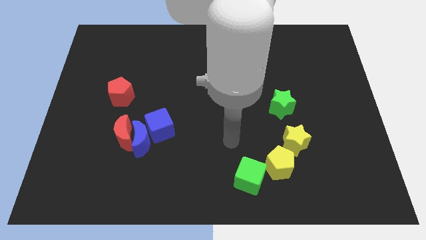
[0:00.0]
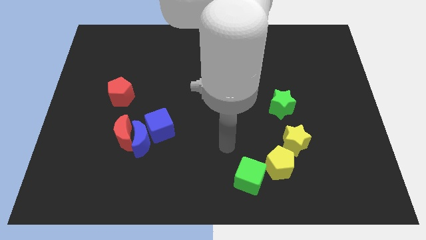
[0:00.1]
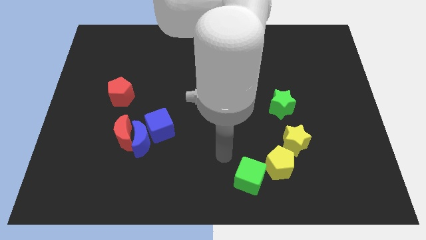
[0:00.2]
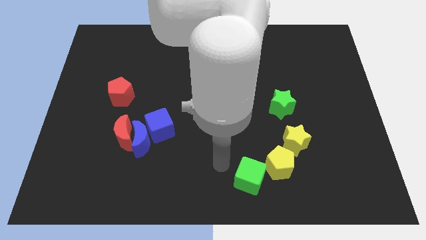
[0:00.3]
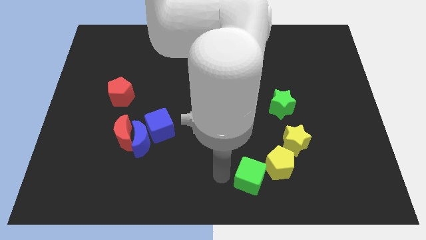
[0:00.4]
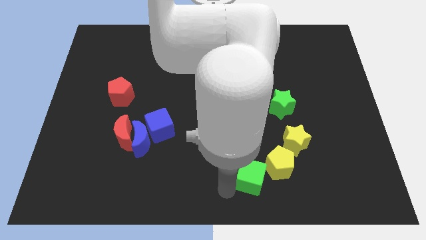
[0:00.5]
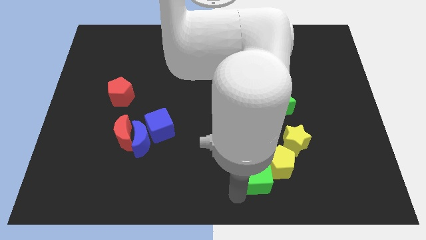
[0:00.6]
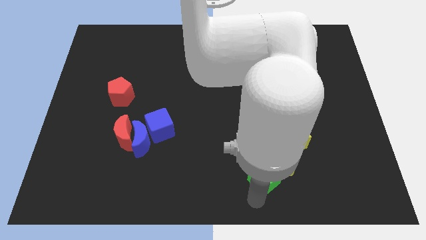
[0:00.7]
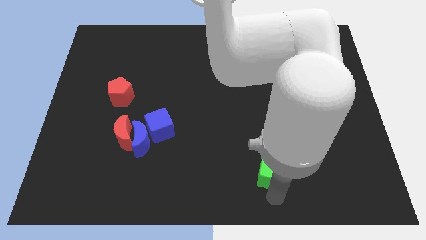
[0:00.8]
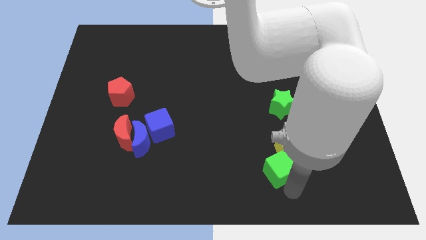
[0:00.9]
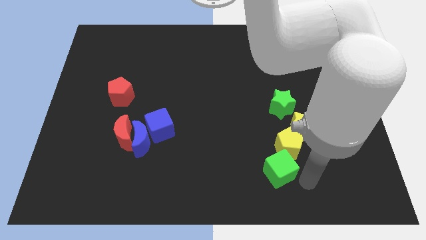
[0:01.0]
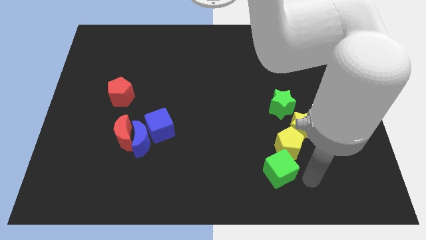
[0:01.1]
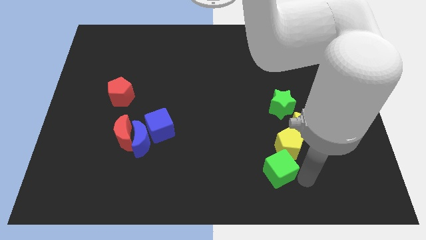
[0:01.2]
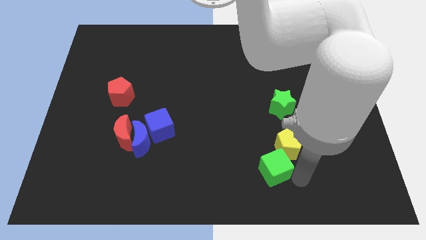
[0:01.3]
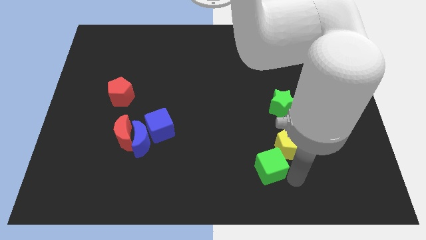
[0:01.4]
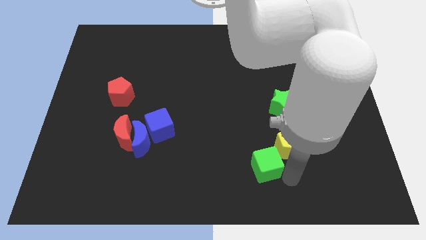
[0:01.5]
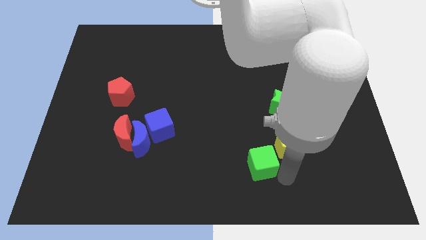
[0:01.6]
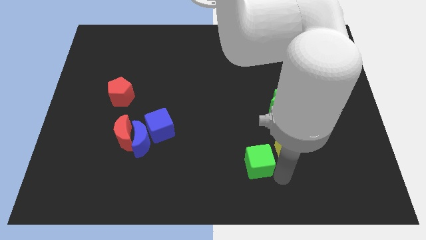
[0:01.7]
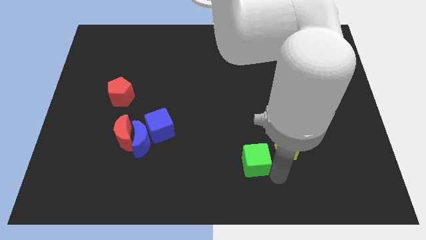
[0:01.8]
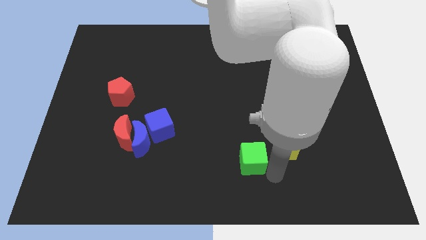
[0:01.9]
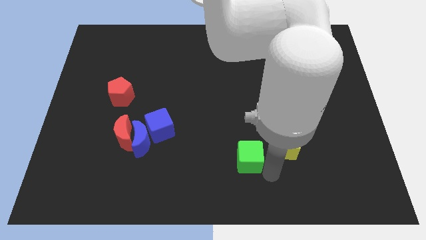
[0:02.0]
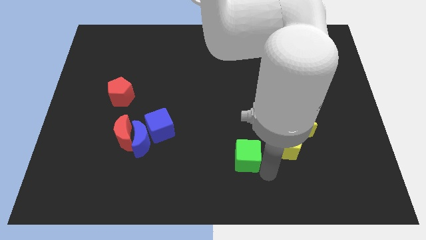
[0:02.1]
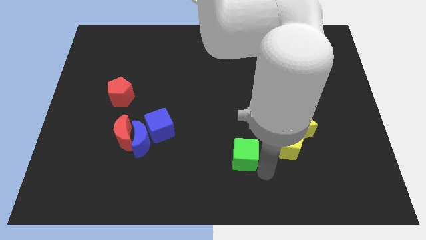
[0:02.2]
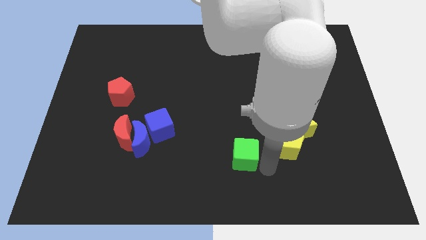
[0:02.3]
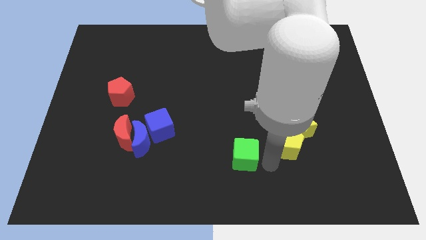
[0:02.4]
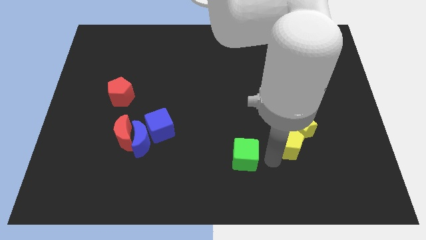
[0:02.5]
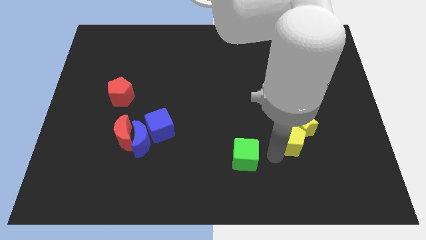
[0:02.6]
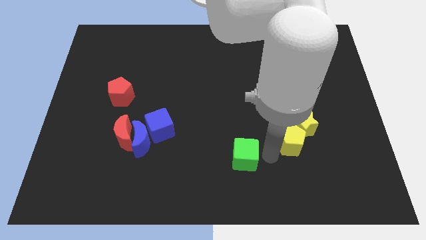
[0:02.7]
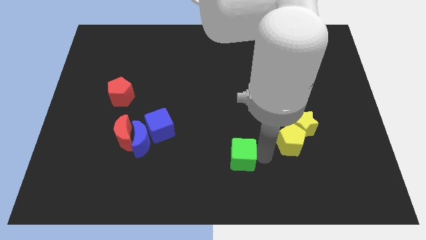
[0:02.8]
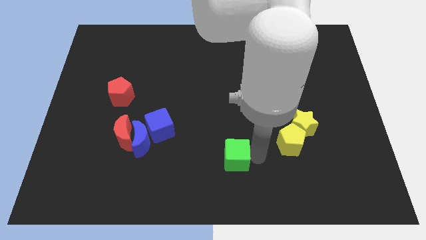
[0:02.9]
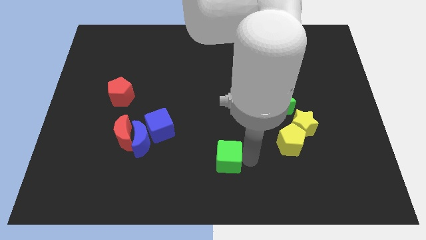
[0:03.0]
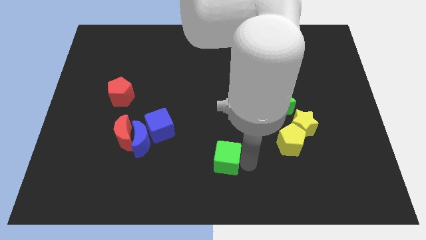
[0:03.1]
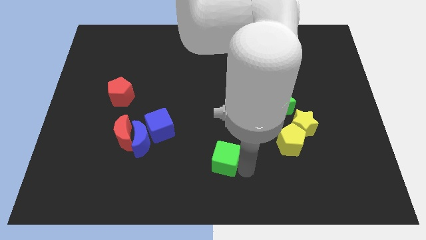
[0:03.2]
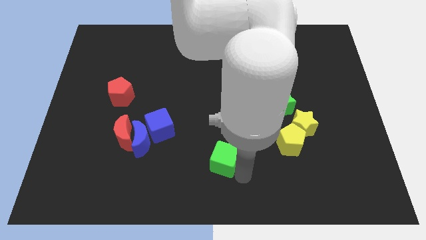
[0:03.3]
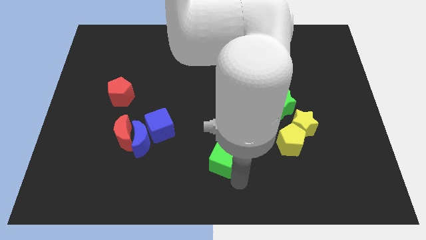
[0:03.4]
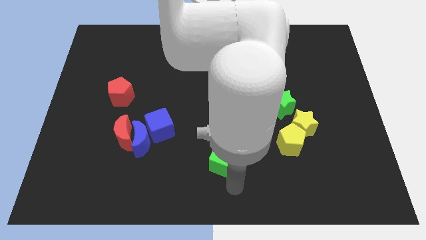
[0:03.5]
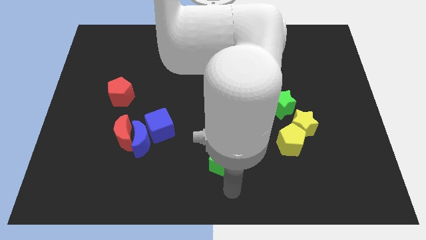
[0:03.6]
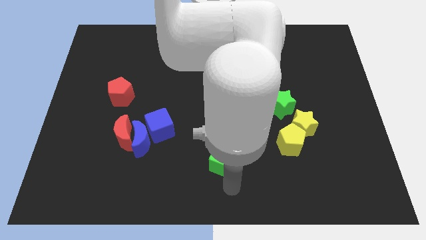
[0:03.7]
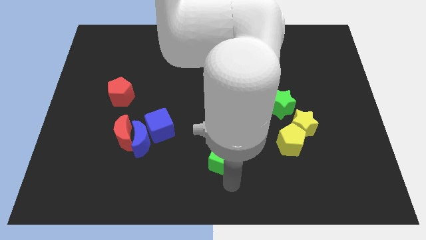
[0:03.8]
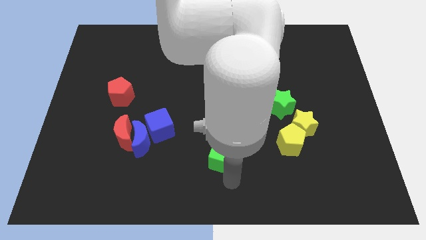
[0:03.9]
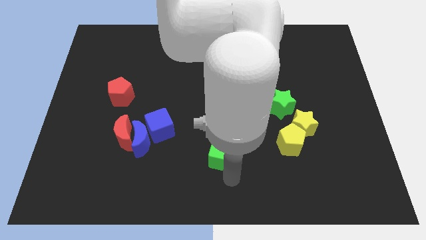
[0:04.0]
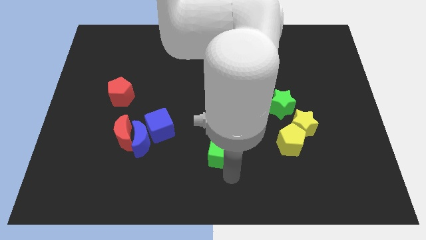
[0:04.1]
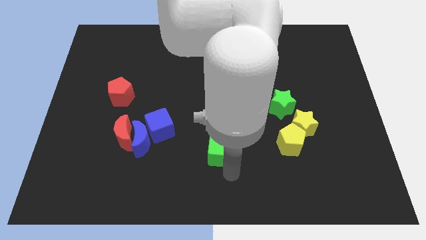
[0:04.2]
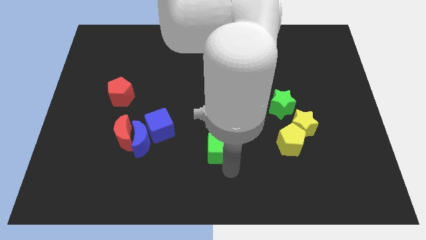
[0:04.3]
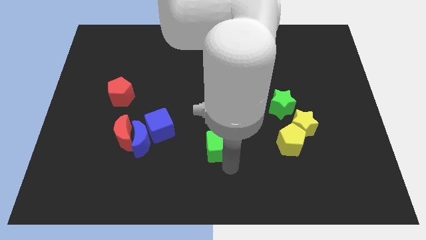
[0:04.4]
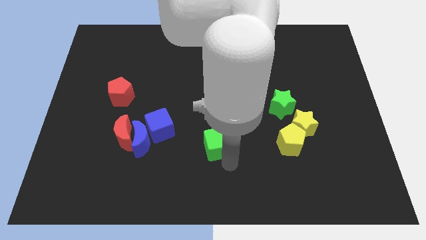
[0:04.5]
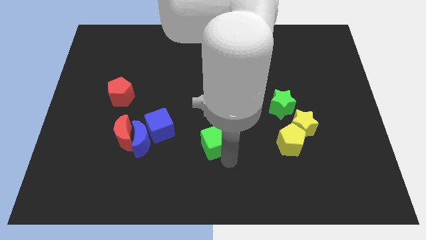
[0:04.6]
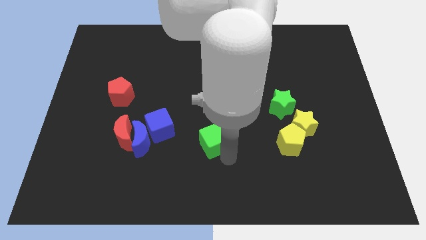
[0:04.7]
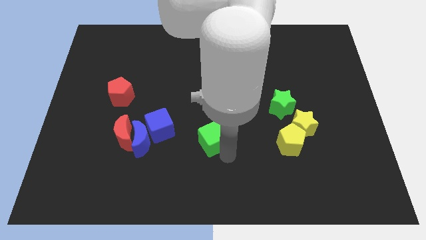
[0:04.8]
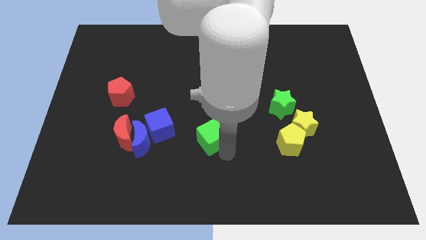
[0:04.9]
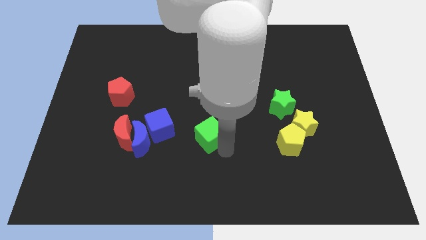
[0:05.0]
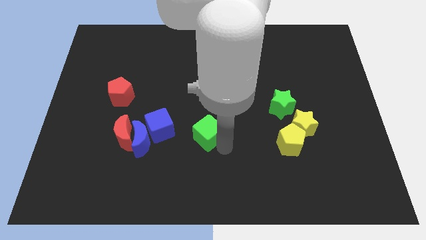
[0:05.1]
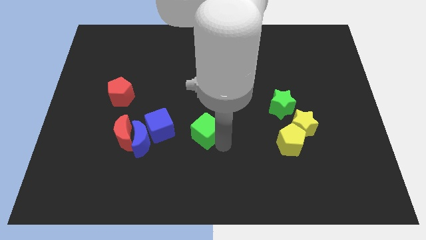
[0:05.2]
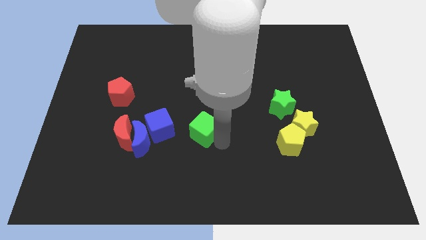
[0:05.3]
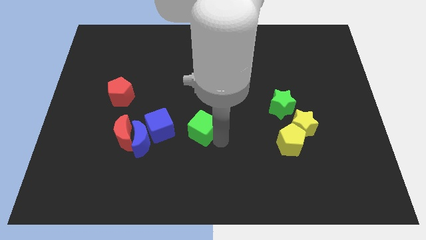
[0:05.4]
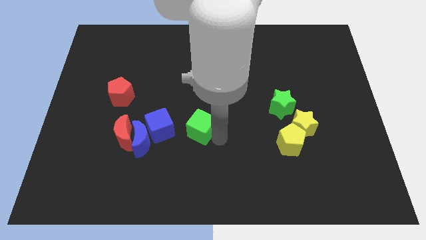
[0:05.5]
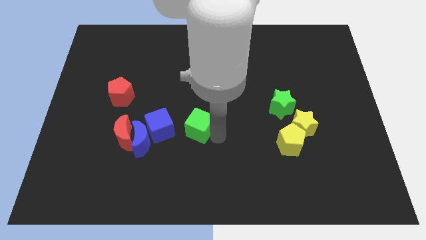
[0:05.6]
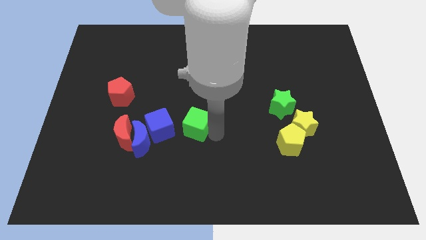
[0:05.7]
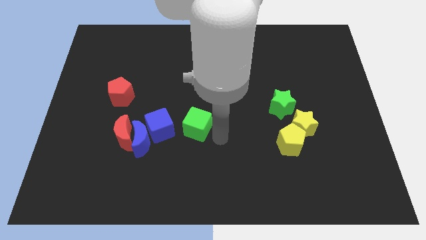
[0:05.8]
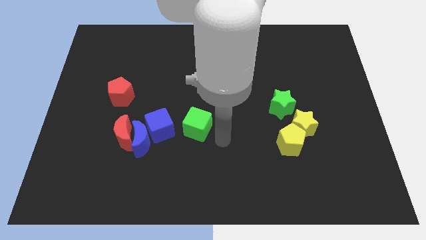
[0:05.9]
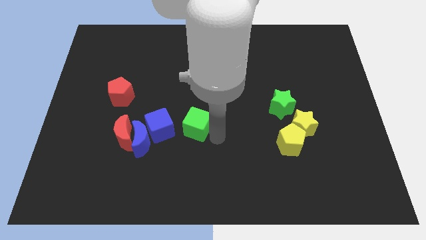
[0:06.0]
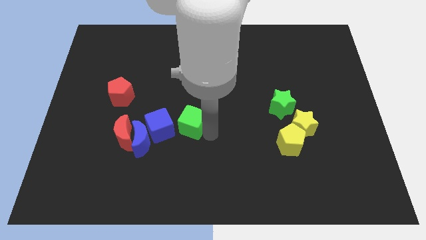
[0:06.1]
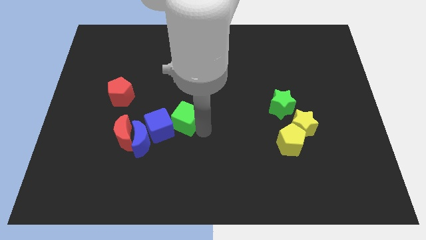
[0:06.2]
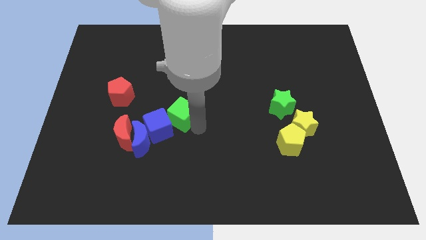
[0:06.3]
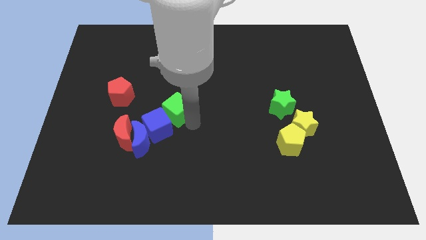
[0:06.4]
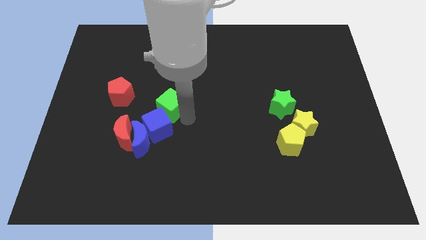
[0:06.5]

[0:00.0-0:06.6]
slide the green cube diagonally up and to the right of the red moon
